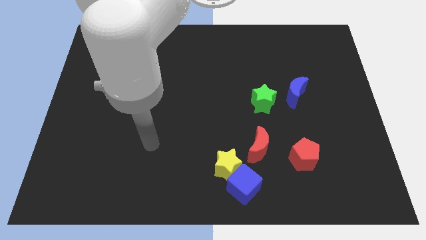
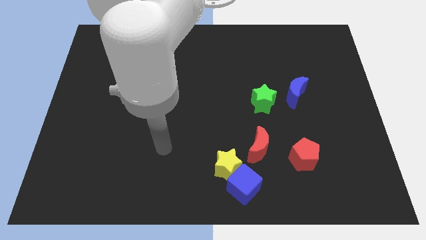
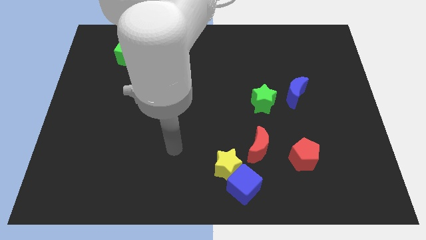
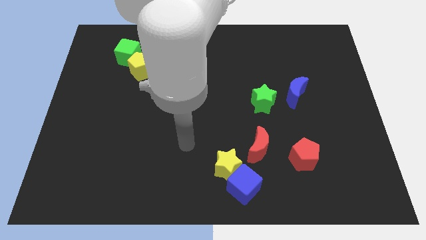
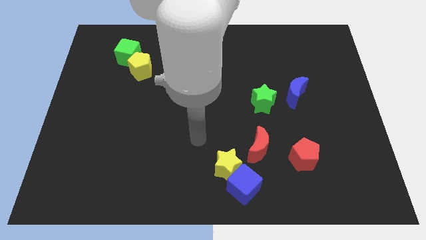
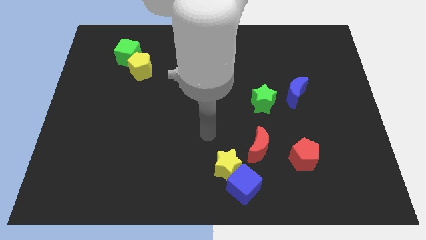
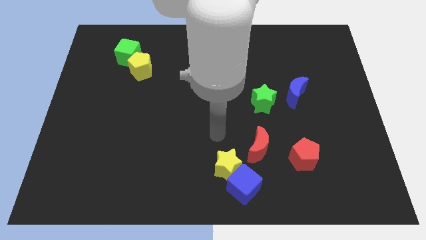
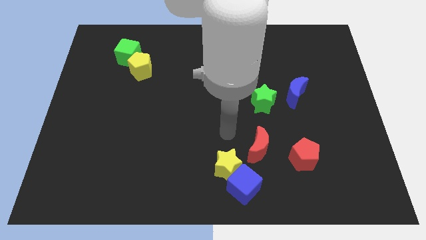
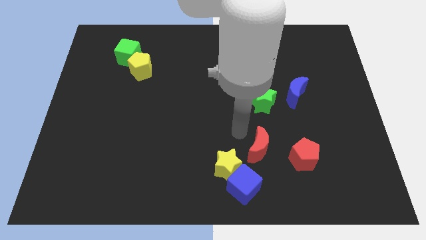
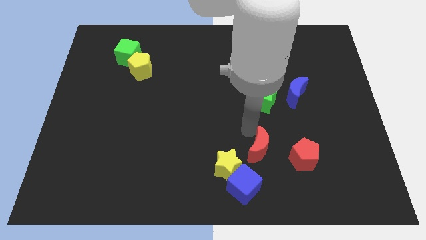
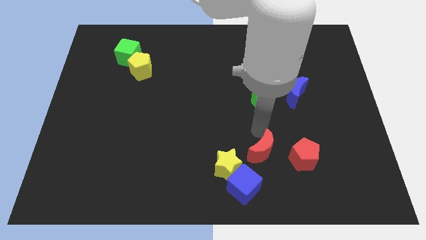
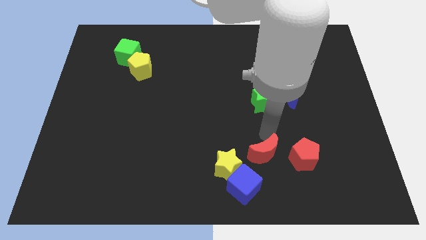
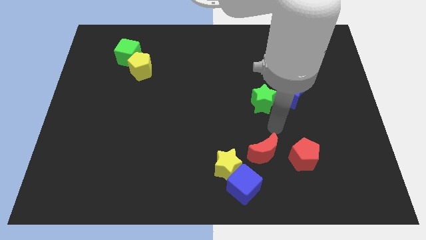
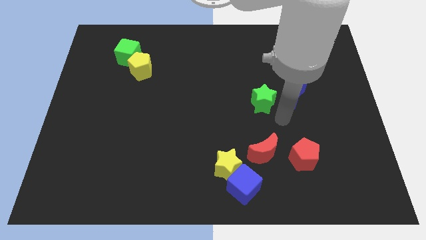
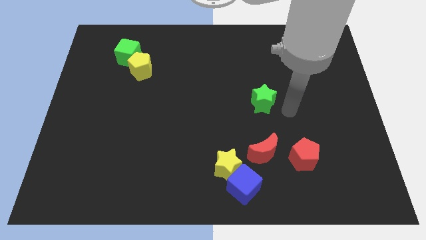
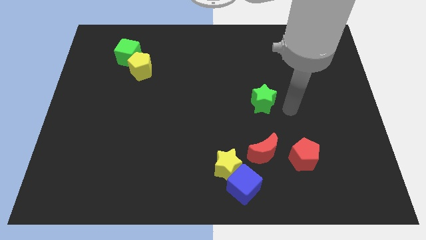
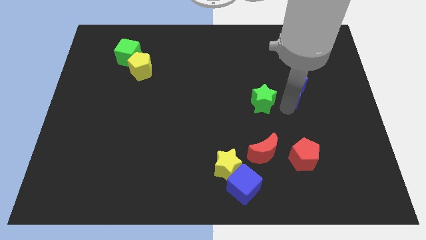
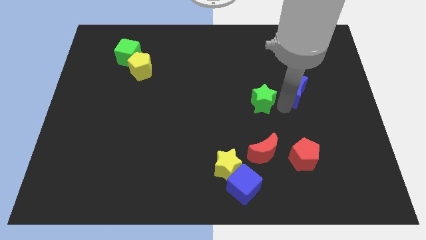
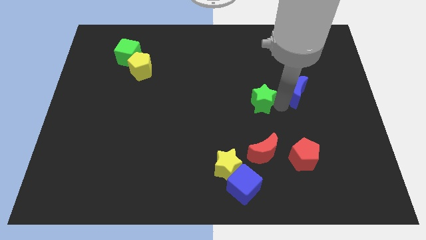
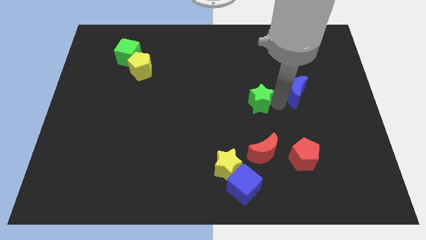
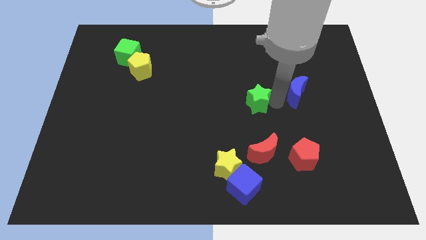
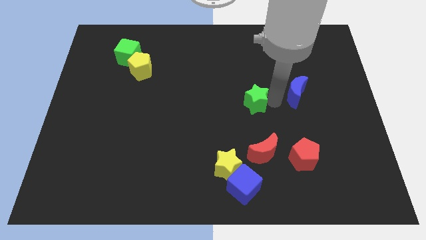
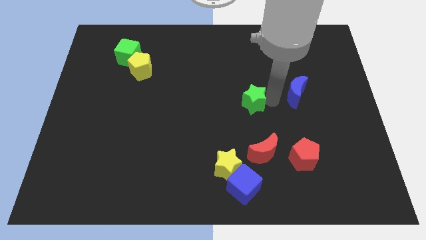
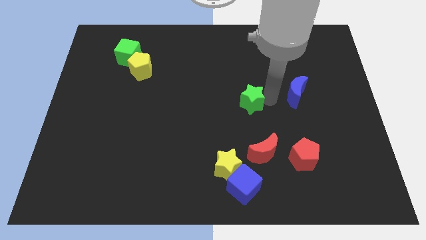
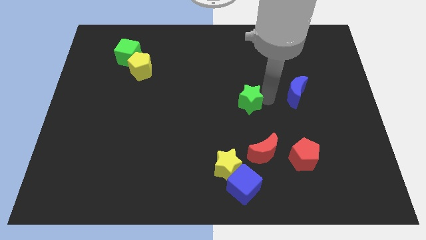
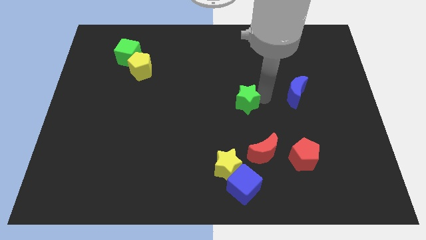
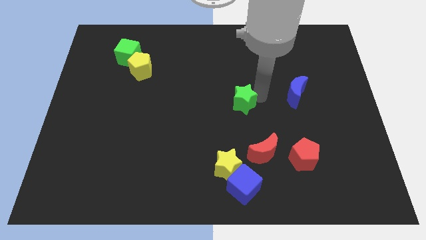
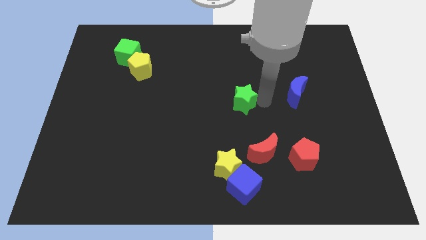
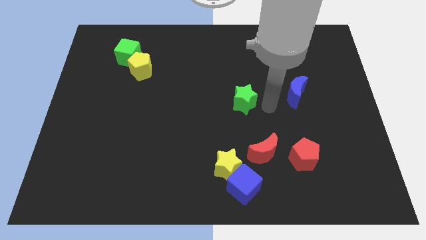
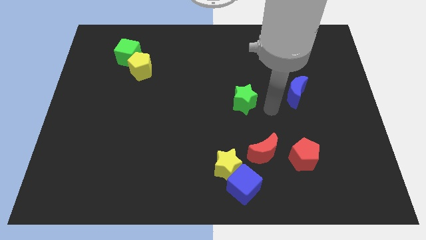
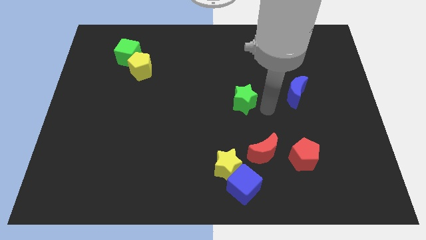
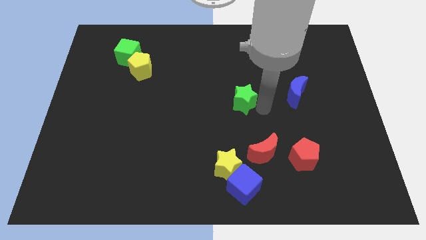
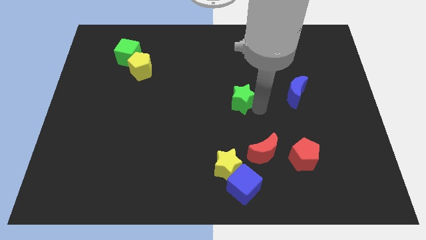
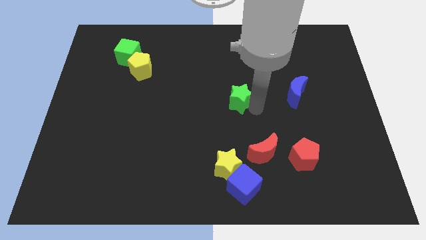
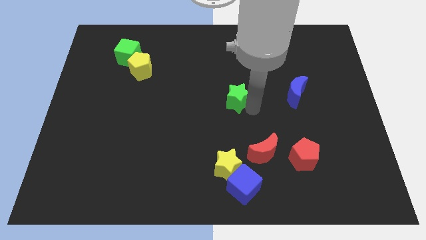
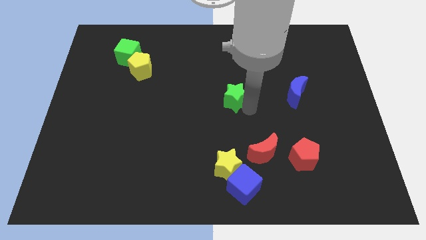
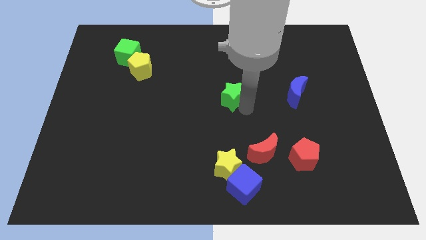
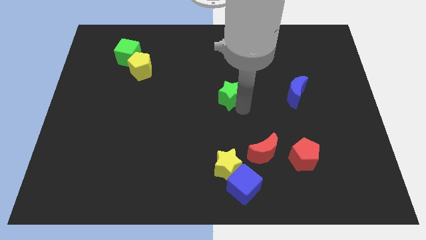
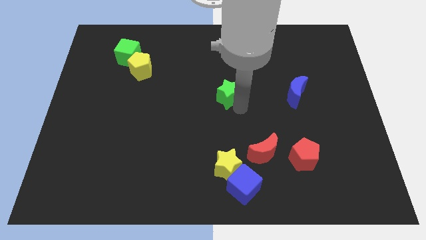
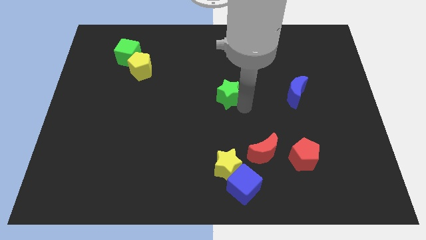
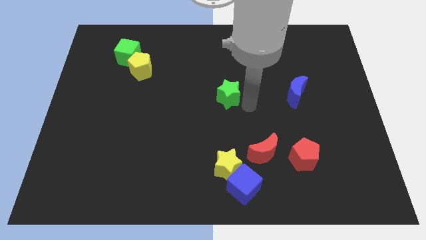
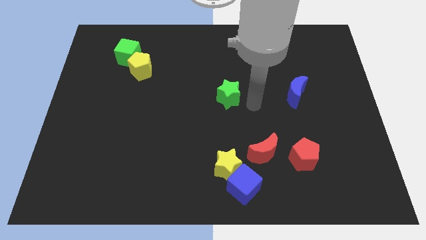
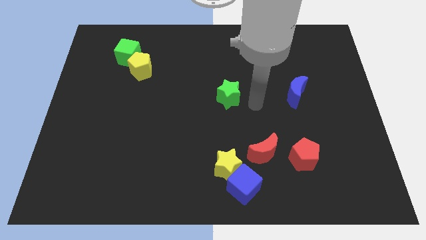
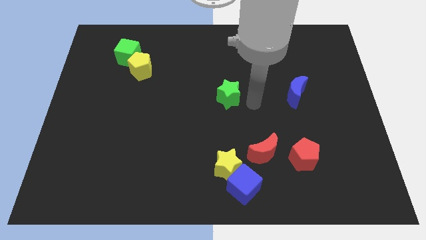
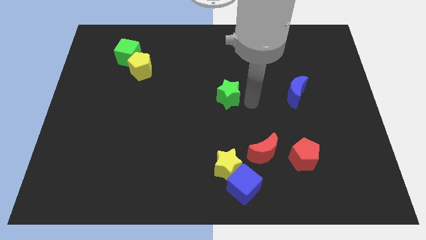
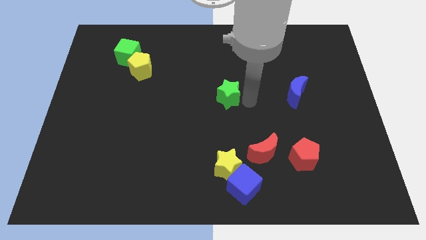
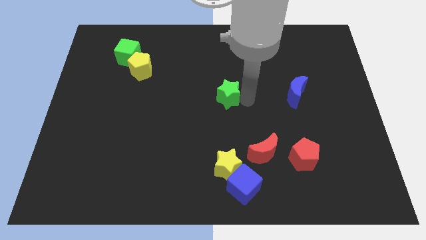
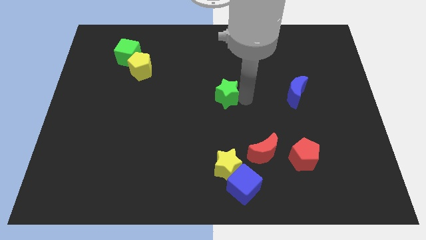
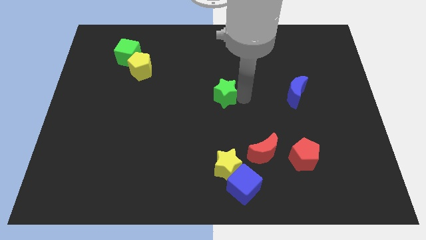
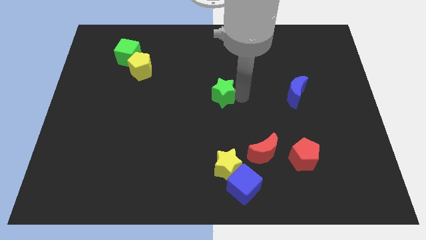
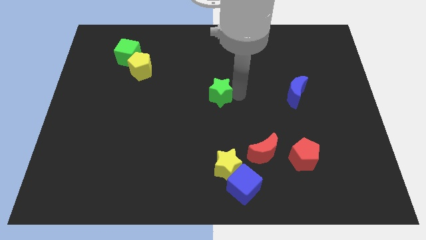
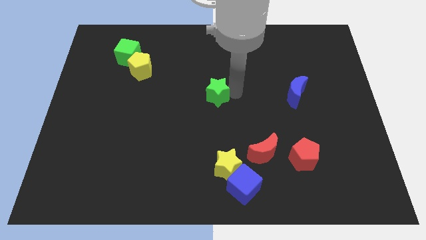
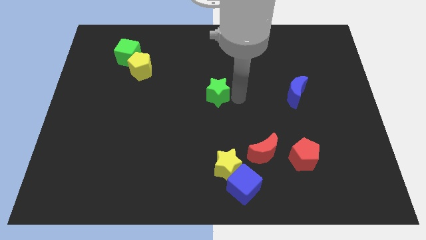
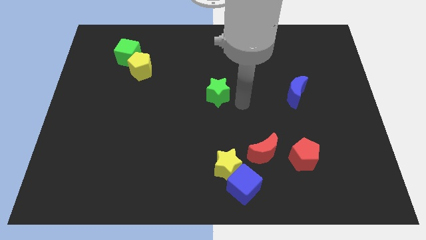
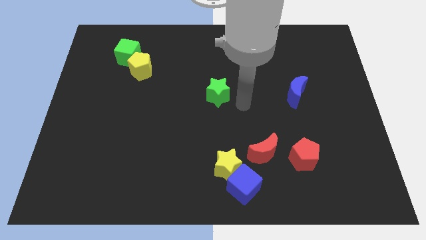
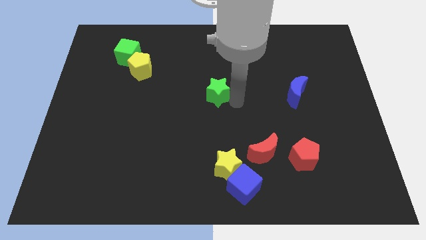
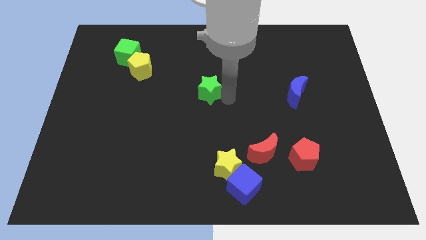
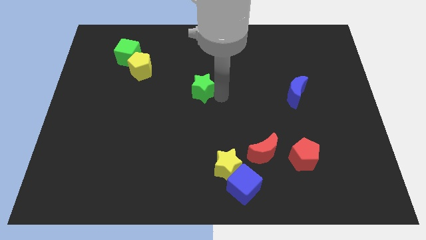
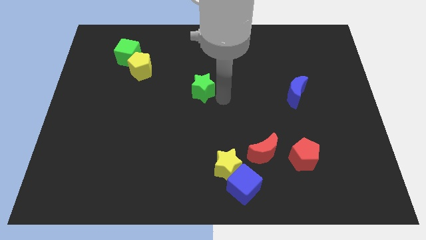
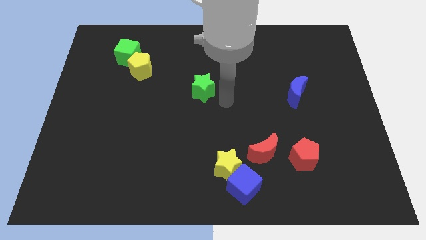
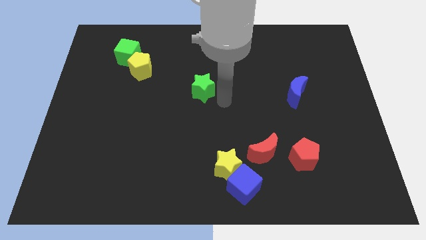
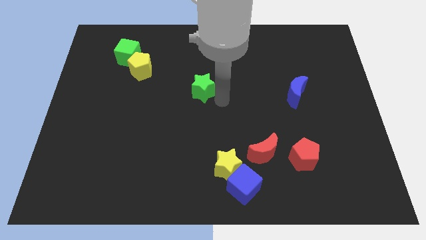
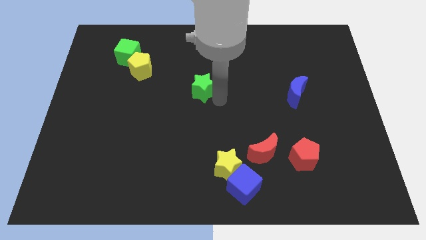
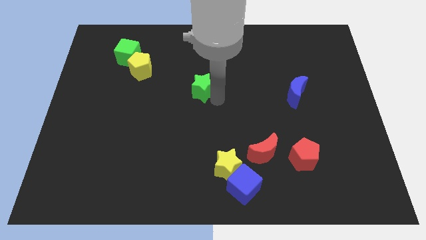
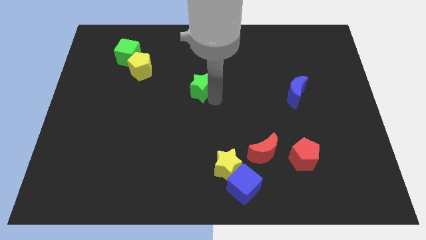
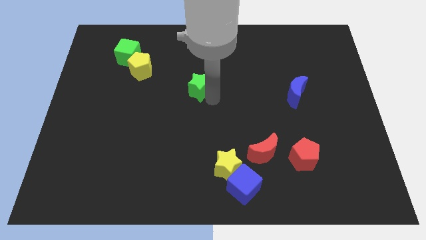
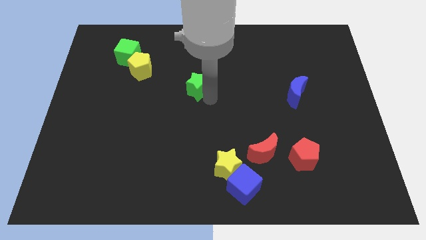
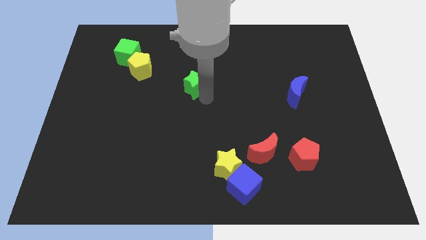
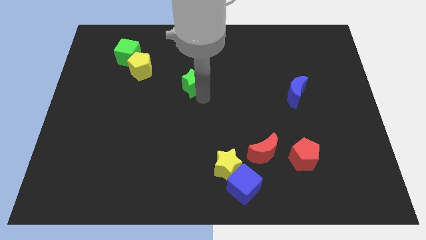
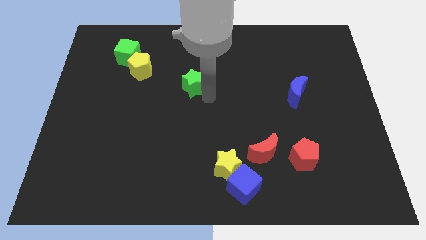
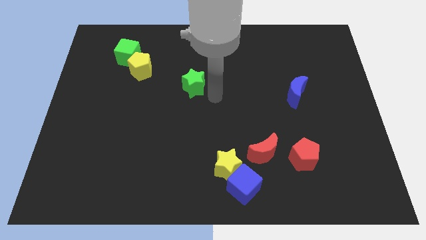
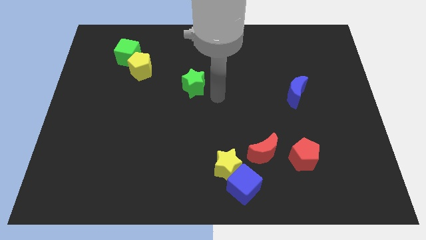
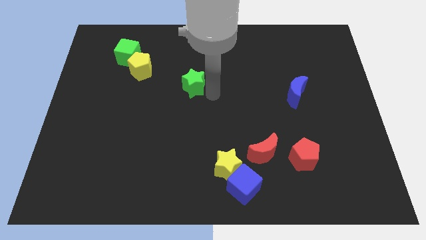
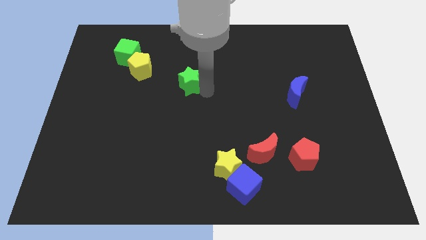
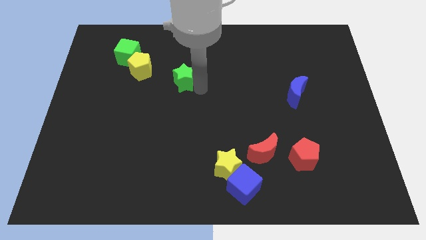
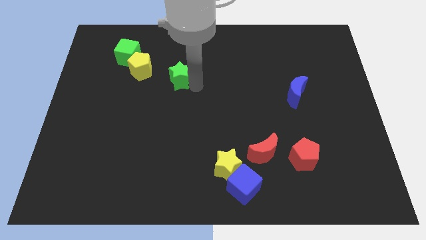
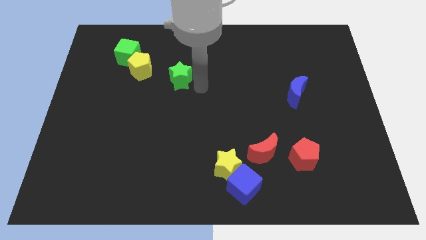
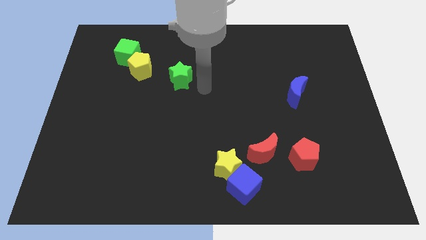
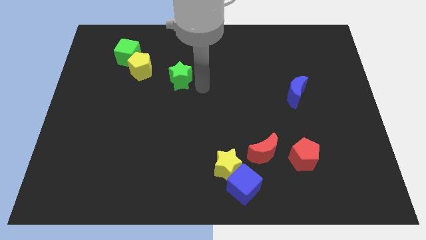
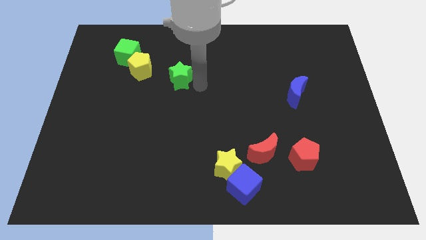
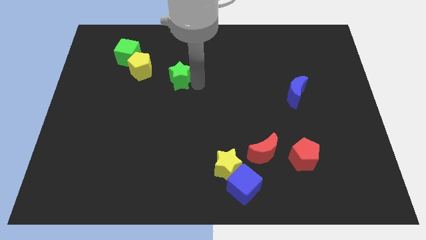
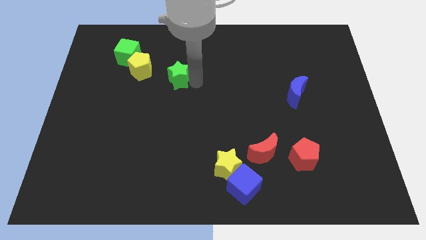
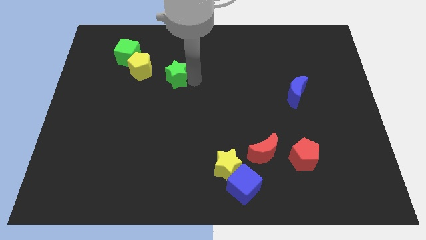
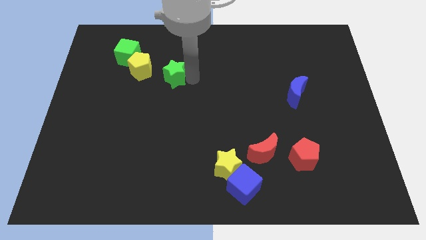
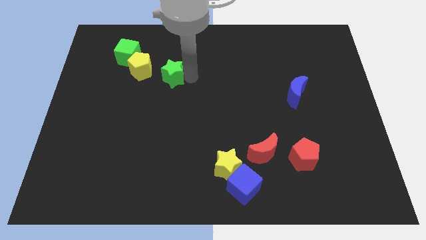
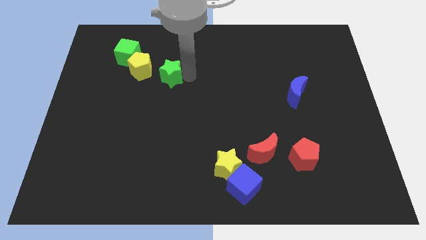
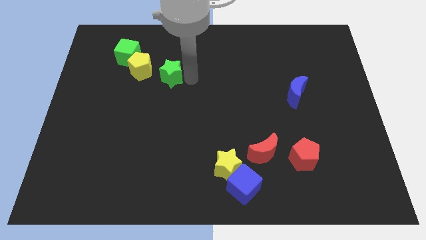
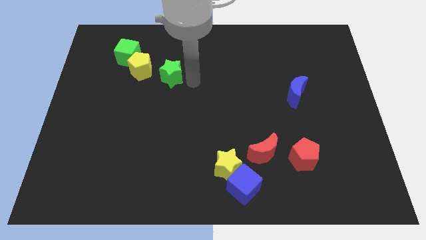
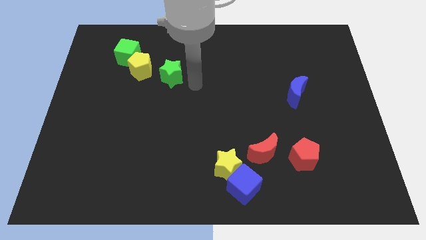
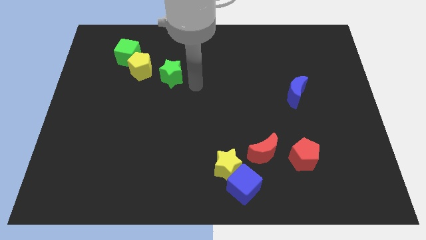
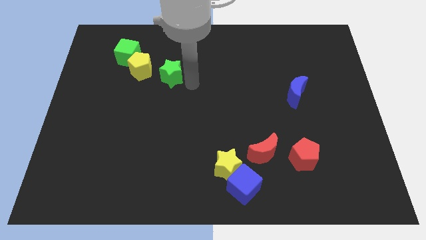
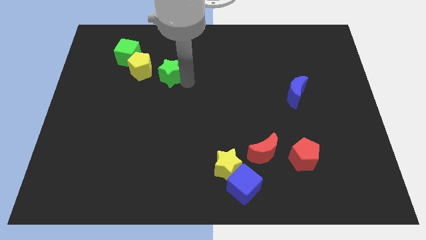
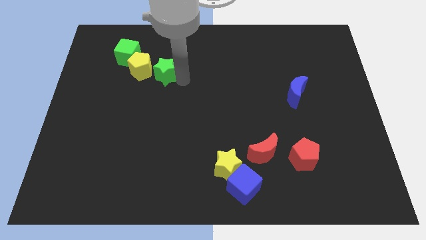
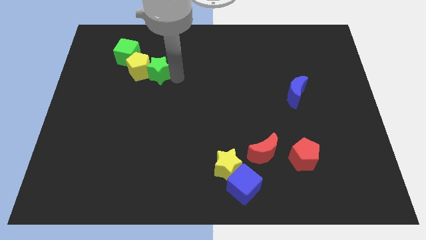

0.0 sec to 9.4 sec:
move the green star to the yellow pentagon
